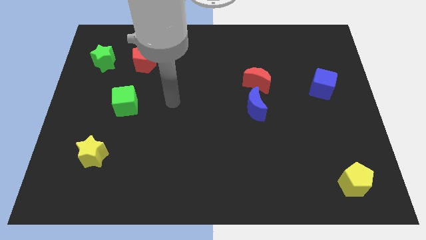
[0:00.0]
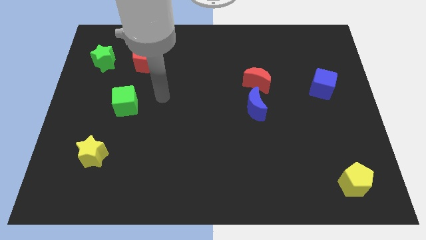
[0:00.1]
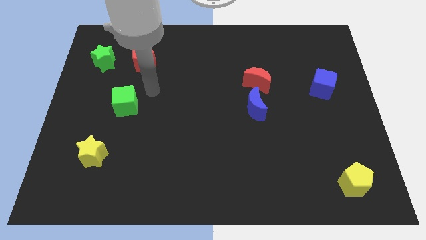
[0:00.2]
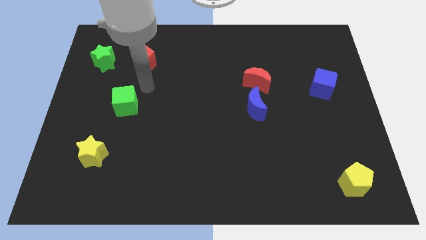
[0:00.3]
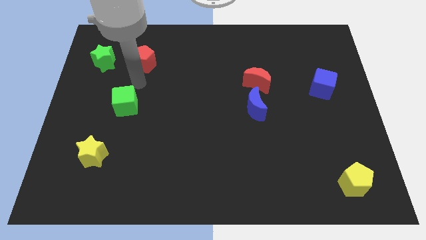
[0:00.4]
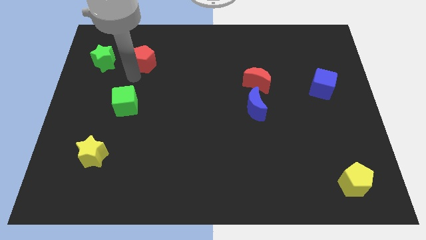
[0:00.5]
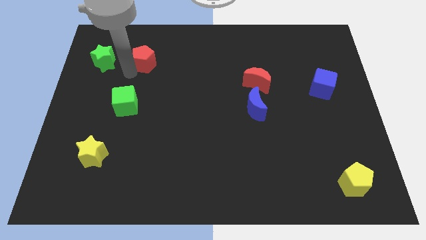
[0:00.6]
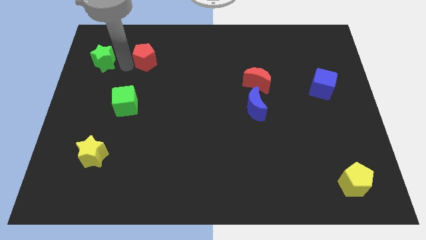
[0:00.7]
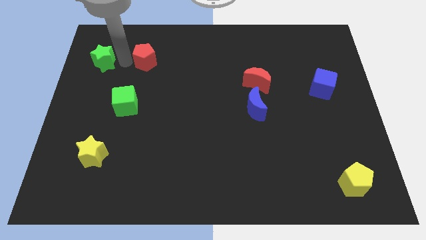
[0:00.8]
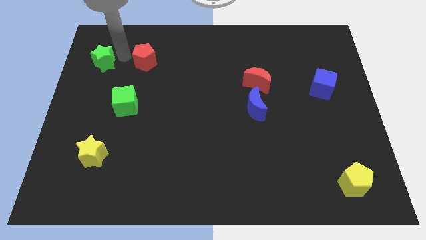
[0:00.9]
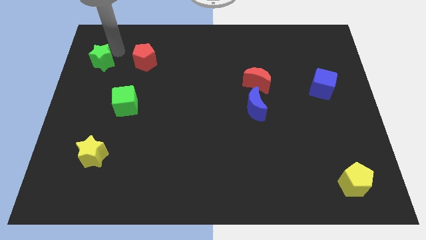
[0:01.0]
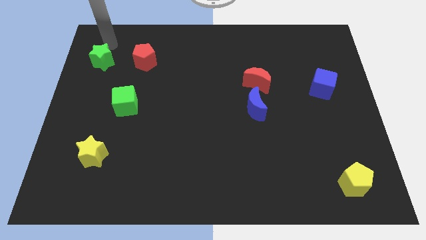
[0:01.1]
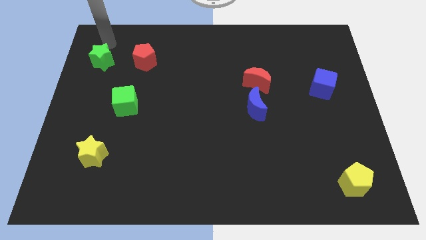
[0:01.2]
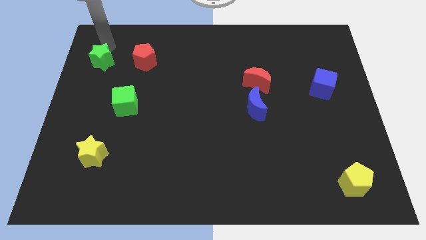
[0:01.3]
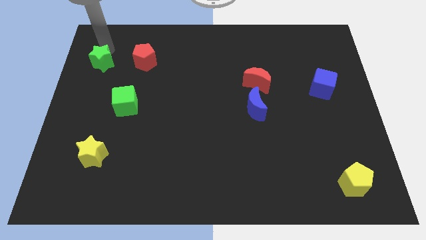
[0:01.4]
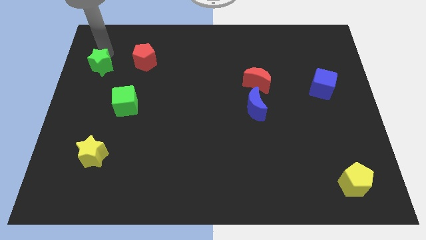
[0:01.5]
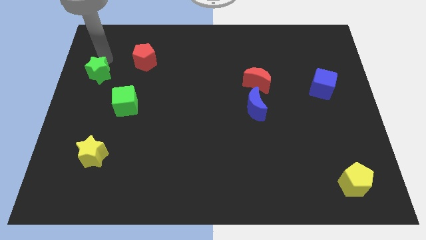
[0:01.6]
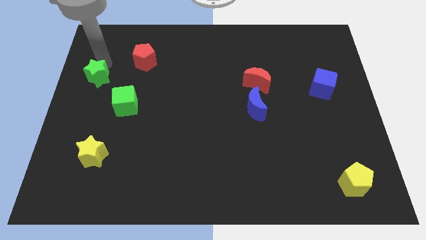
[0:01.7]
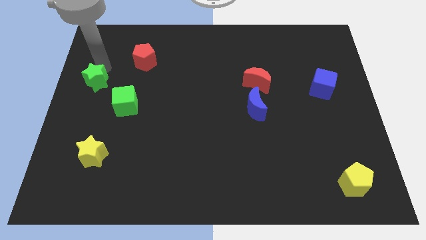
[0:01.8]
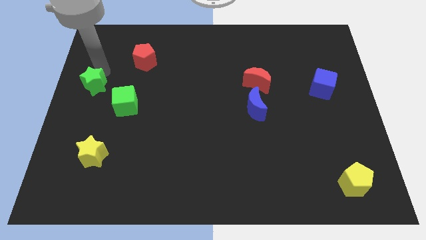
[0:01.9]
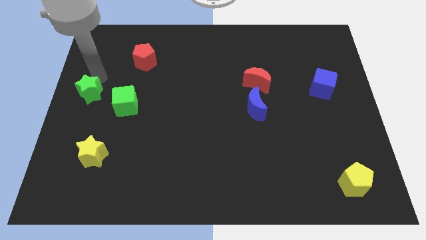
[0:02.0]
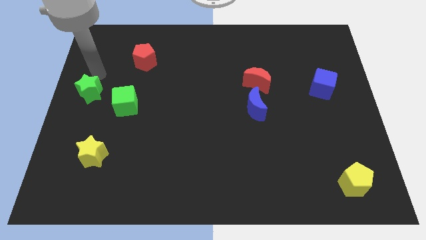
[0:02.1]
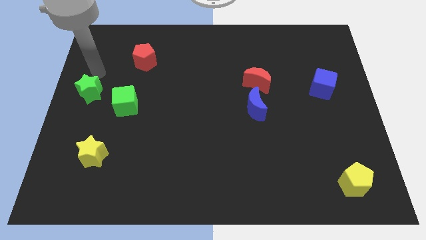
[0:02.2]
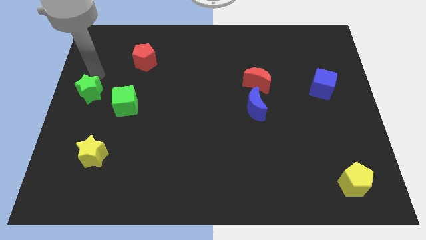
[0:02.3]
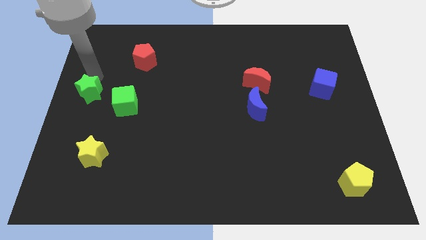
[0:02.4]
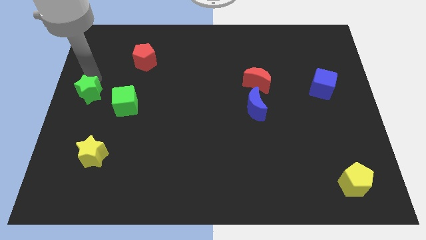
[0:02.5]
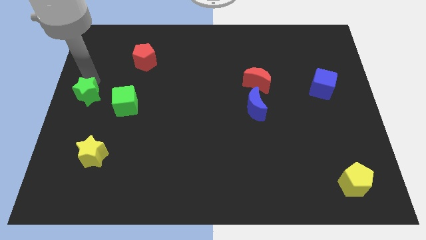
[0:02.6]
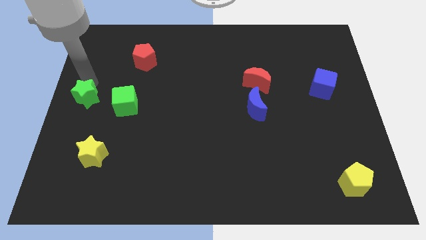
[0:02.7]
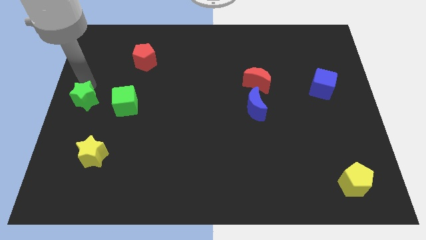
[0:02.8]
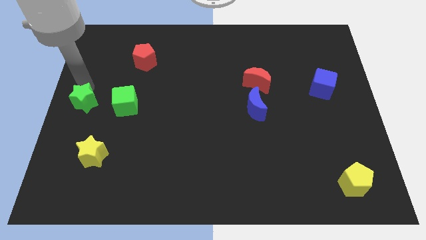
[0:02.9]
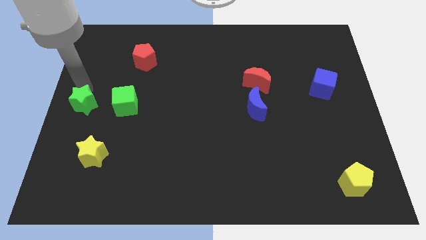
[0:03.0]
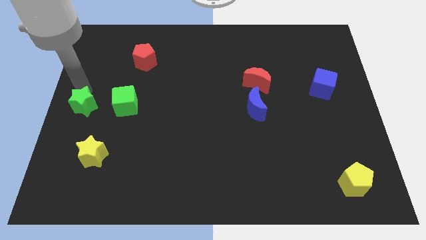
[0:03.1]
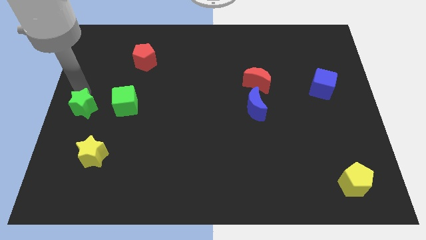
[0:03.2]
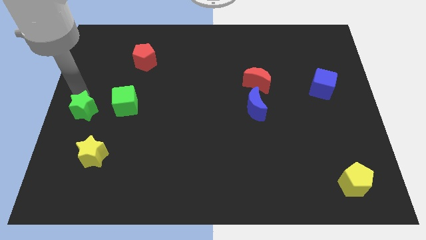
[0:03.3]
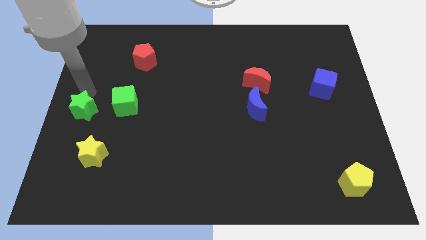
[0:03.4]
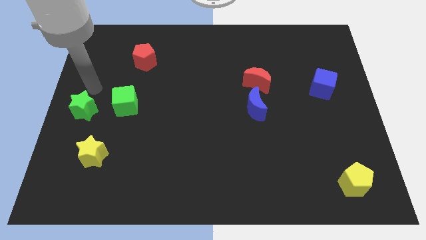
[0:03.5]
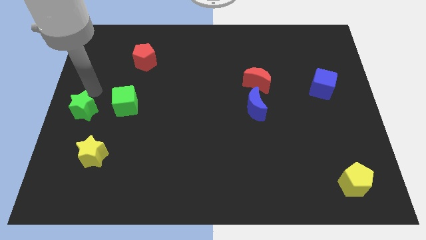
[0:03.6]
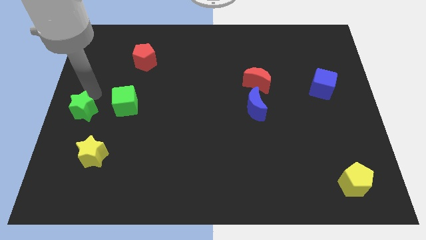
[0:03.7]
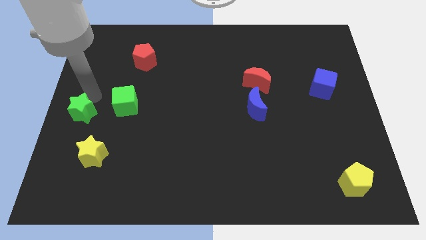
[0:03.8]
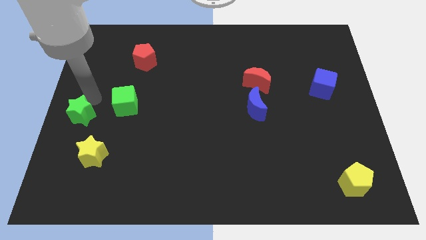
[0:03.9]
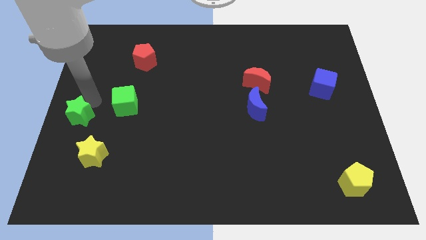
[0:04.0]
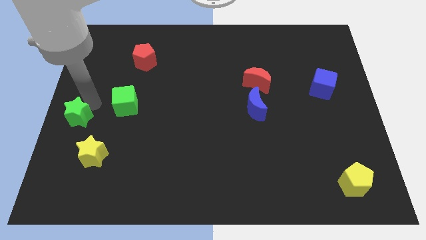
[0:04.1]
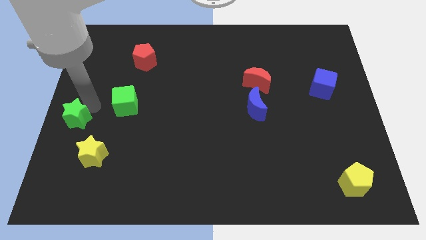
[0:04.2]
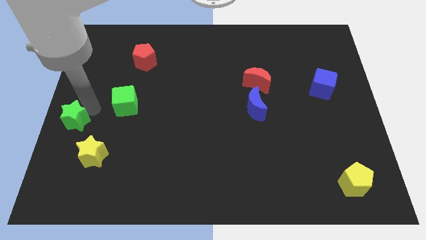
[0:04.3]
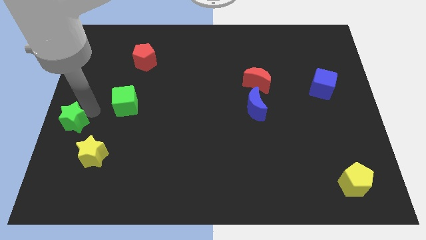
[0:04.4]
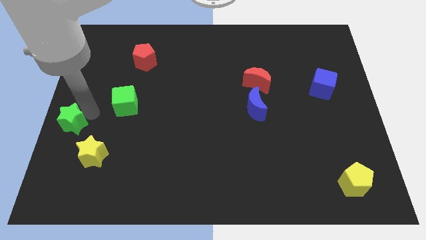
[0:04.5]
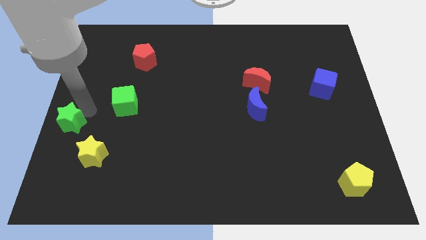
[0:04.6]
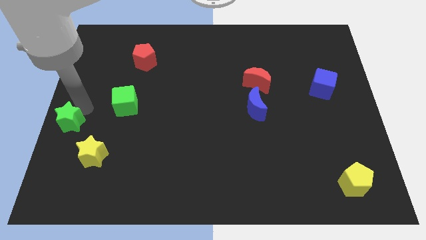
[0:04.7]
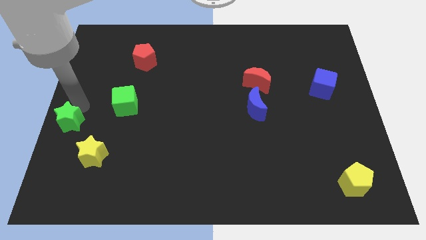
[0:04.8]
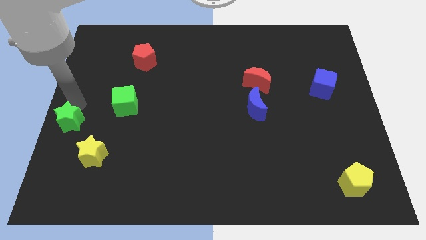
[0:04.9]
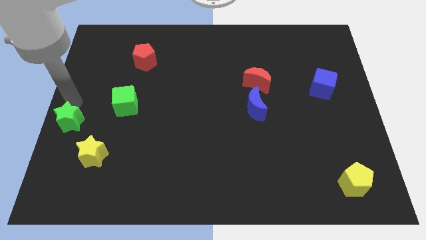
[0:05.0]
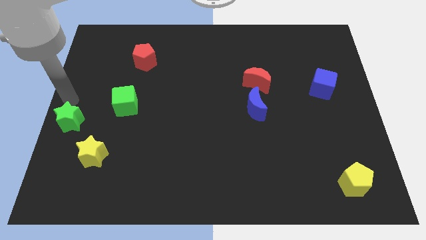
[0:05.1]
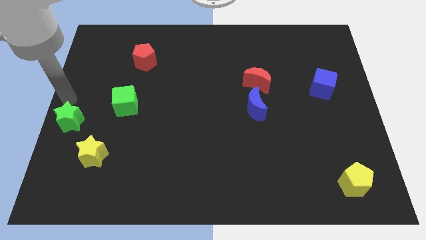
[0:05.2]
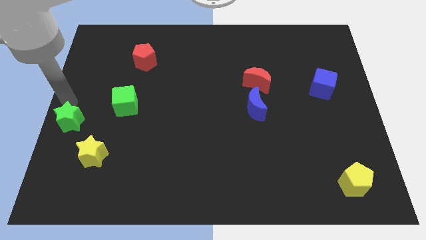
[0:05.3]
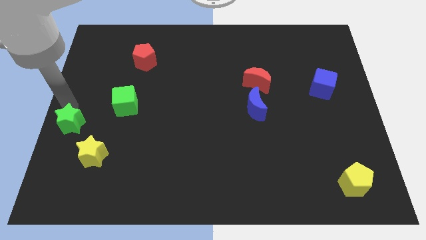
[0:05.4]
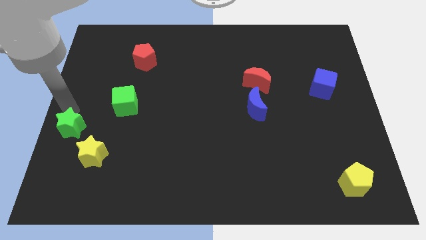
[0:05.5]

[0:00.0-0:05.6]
push the green star down

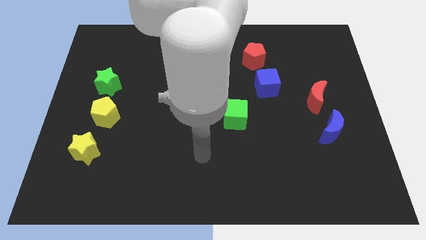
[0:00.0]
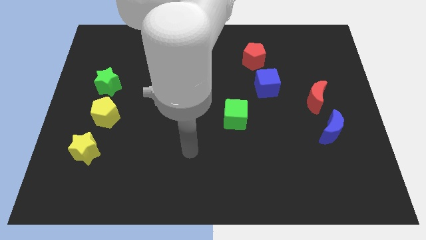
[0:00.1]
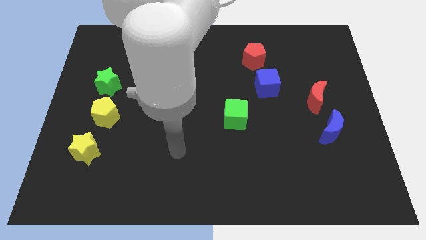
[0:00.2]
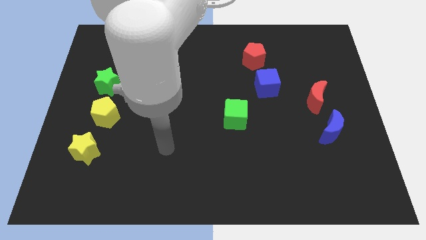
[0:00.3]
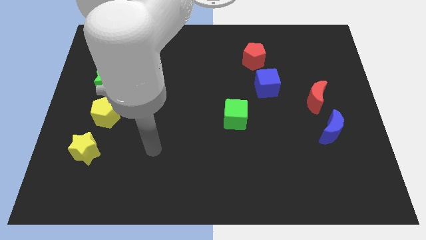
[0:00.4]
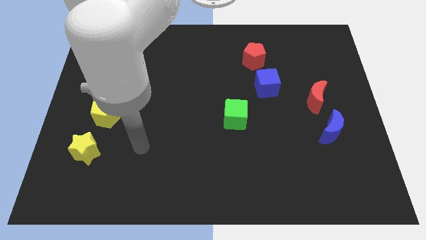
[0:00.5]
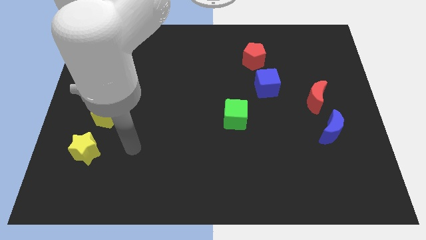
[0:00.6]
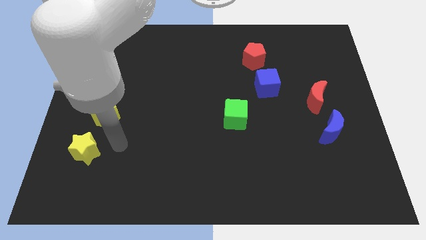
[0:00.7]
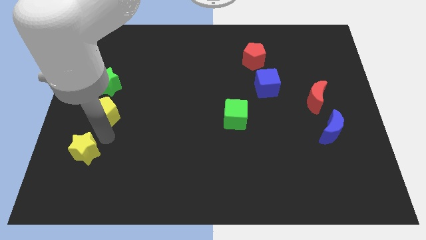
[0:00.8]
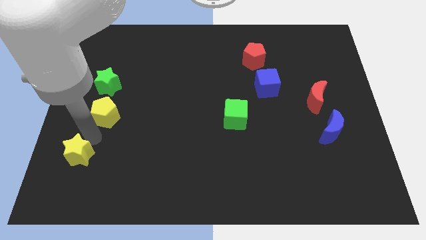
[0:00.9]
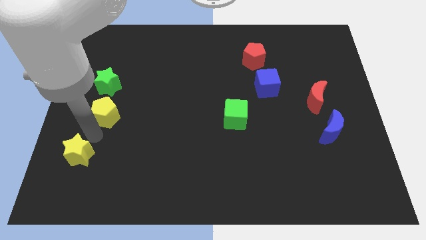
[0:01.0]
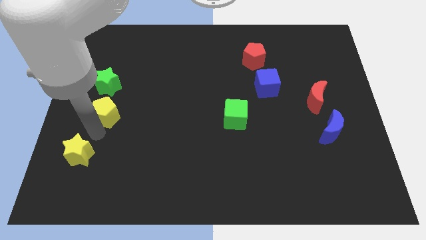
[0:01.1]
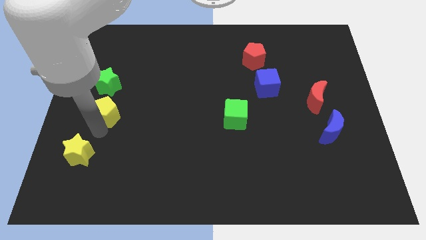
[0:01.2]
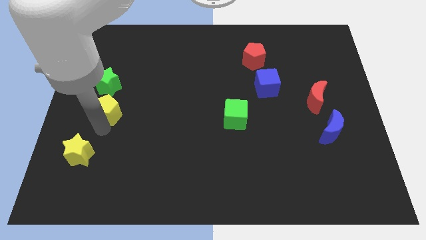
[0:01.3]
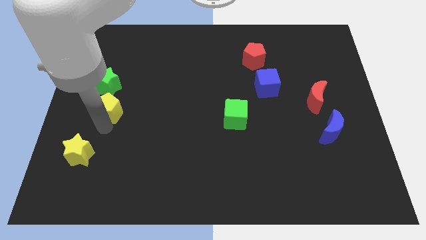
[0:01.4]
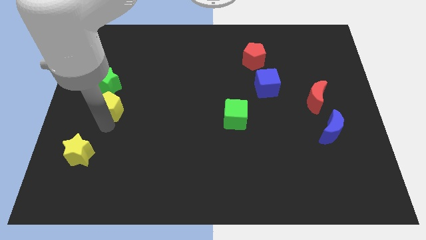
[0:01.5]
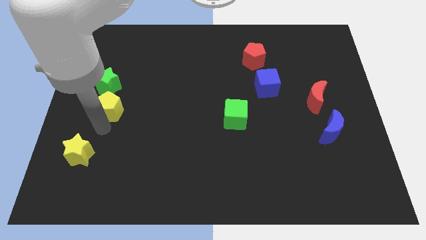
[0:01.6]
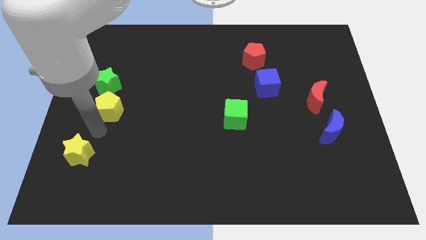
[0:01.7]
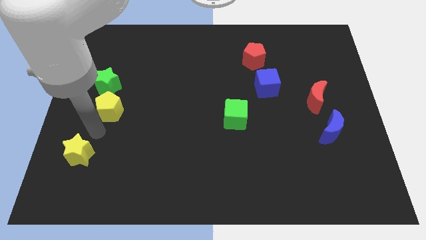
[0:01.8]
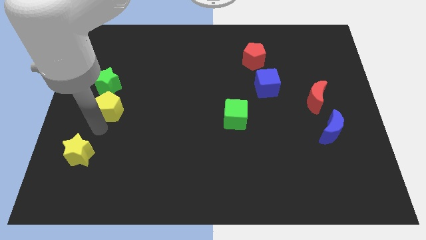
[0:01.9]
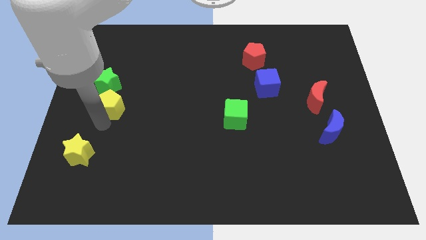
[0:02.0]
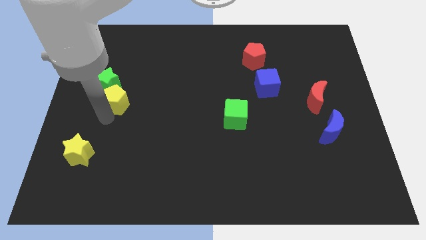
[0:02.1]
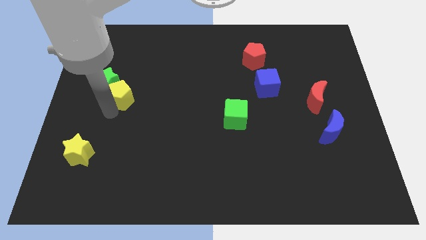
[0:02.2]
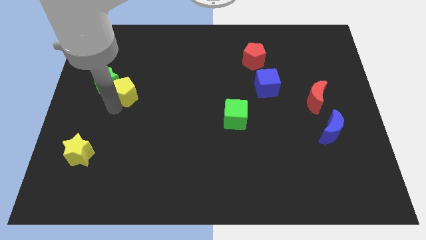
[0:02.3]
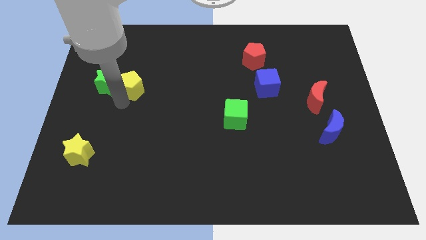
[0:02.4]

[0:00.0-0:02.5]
move the yellow pentagon upwards a bit
